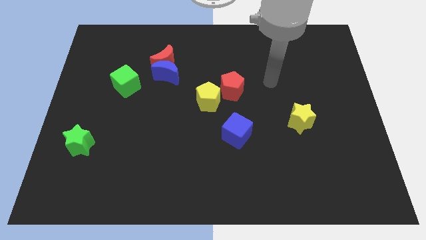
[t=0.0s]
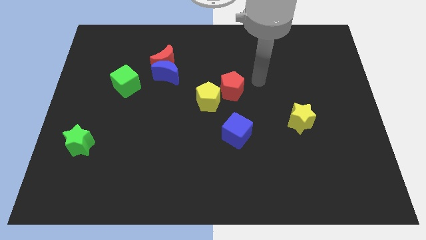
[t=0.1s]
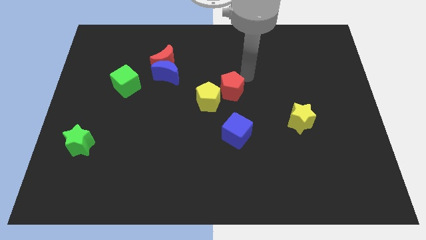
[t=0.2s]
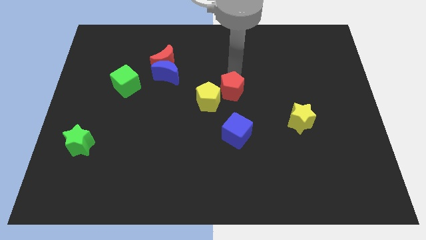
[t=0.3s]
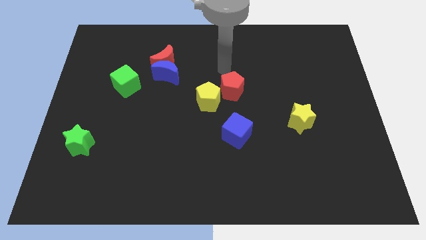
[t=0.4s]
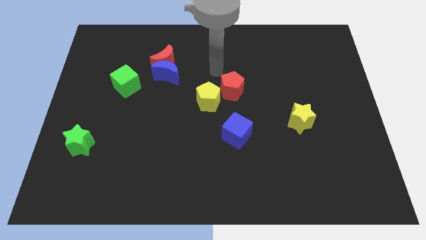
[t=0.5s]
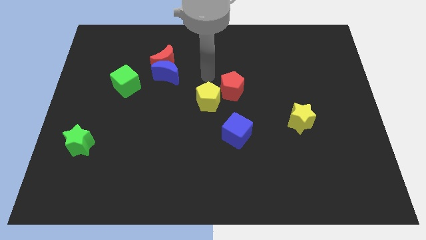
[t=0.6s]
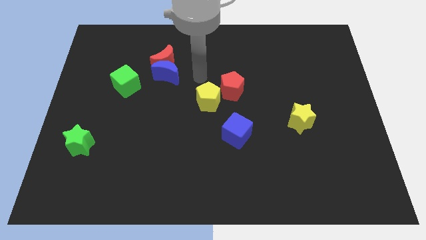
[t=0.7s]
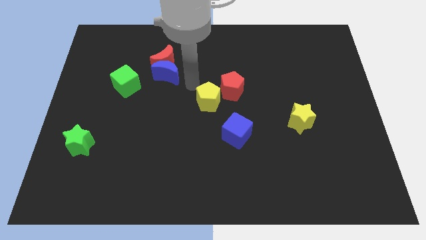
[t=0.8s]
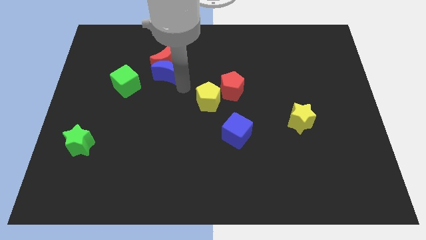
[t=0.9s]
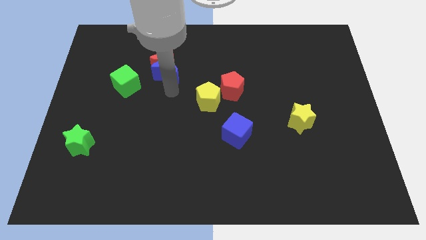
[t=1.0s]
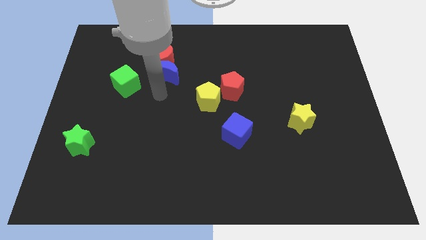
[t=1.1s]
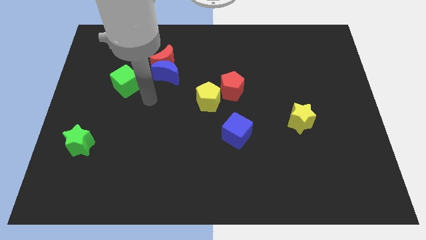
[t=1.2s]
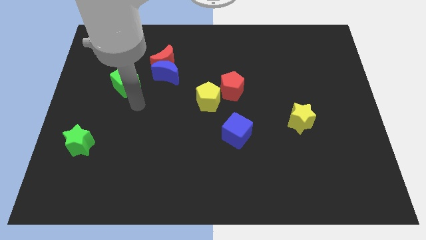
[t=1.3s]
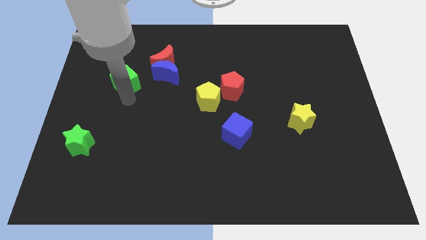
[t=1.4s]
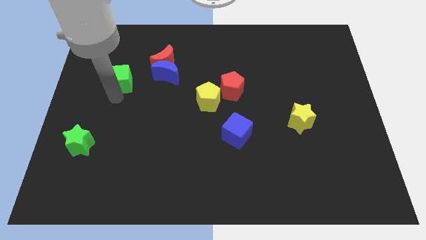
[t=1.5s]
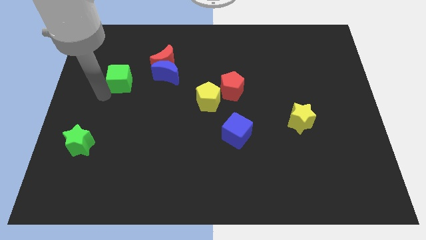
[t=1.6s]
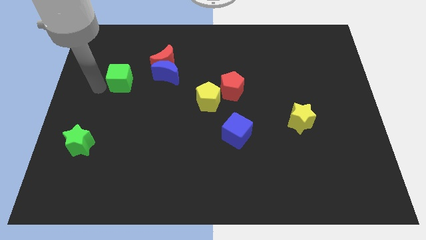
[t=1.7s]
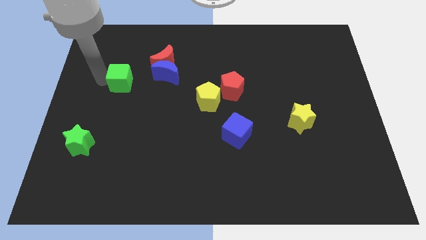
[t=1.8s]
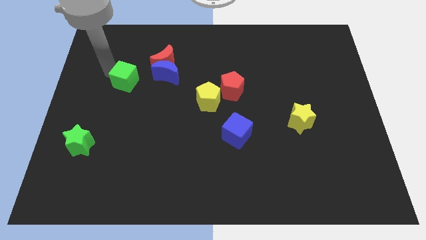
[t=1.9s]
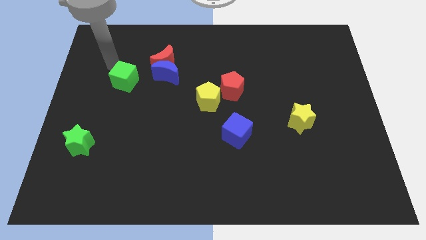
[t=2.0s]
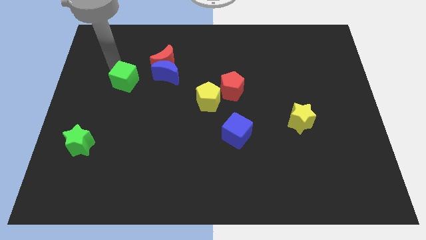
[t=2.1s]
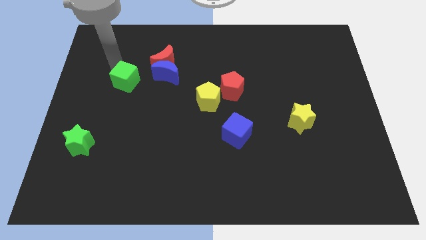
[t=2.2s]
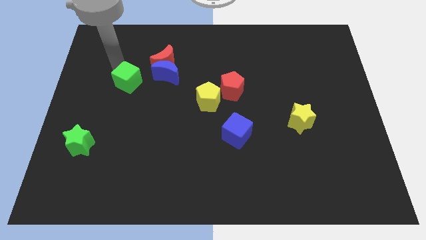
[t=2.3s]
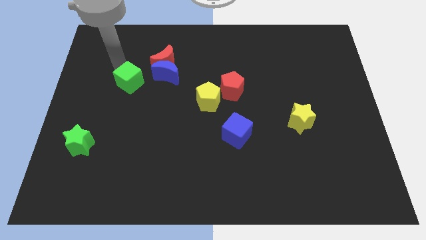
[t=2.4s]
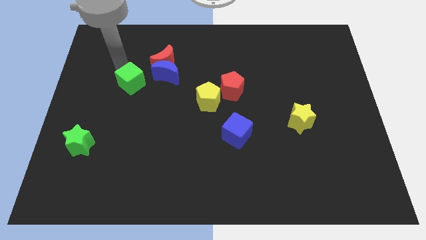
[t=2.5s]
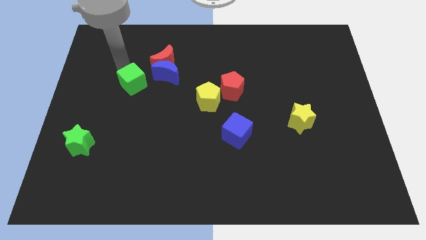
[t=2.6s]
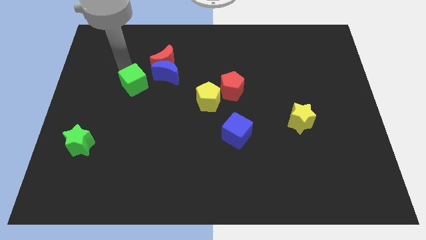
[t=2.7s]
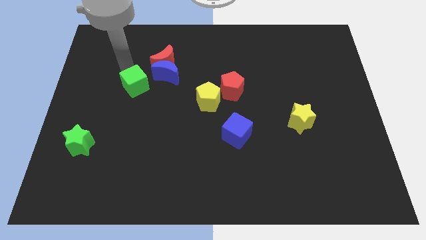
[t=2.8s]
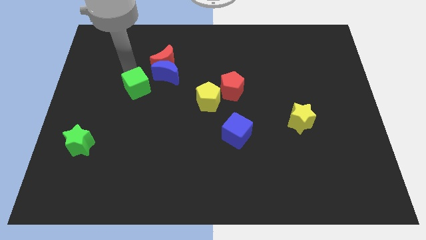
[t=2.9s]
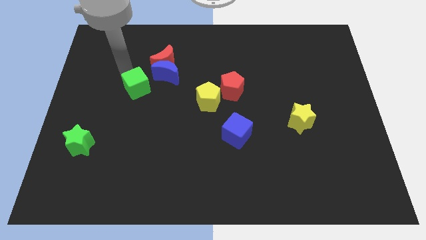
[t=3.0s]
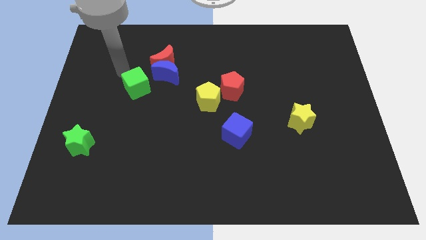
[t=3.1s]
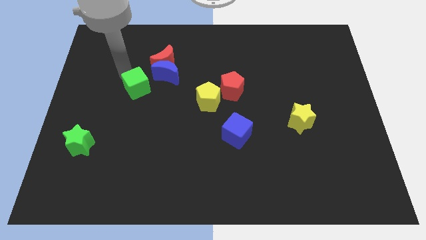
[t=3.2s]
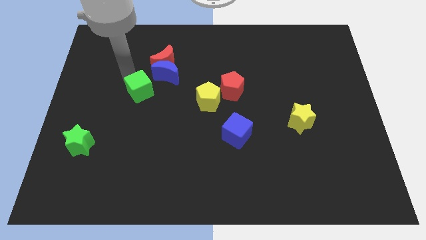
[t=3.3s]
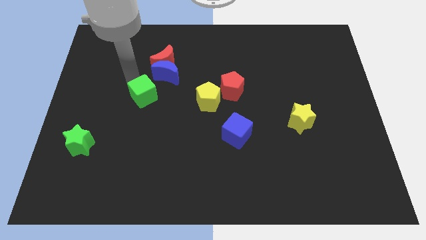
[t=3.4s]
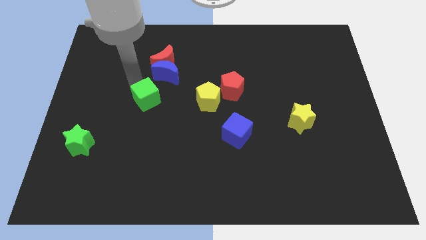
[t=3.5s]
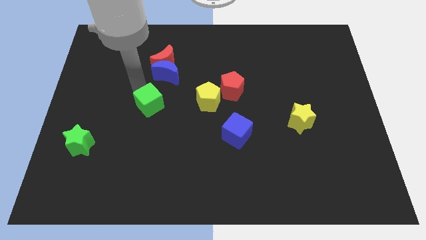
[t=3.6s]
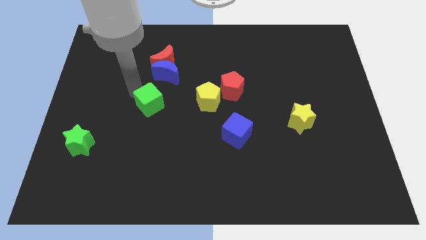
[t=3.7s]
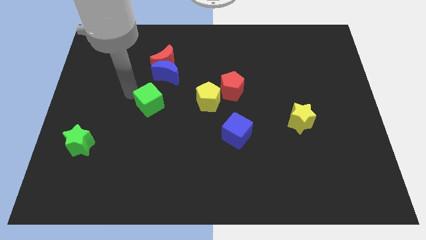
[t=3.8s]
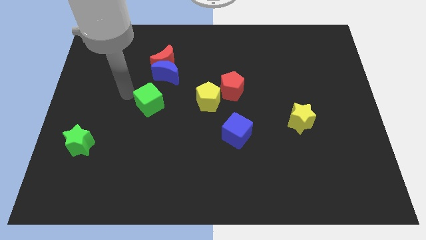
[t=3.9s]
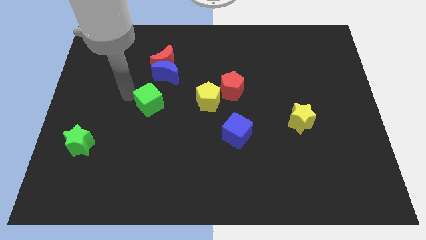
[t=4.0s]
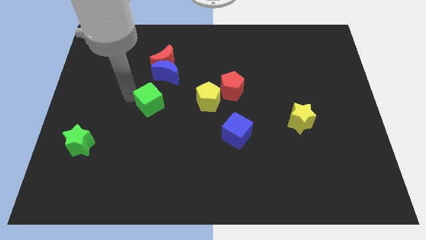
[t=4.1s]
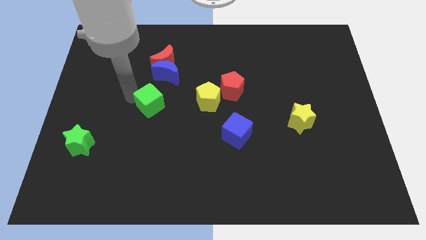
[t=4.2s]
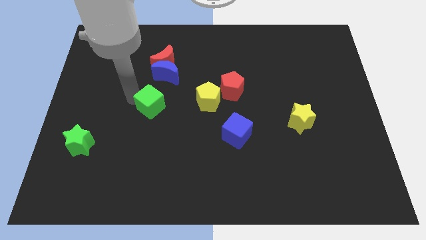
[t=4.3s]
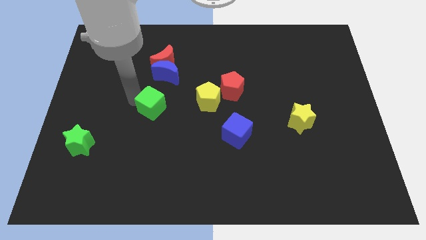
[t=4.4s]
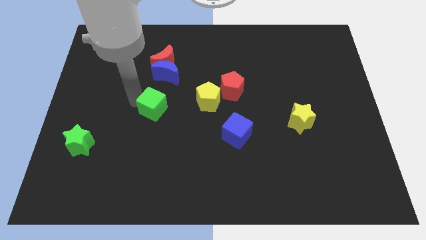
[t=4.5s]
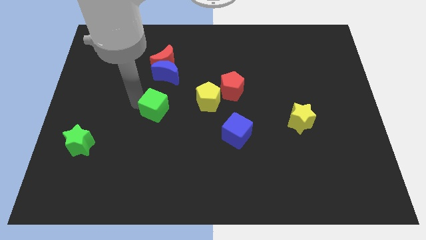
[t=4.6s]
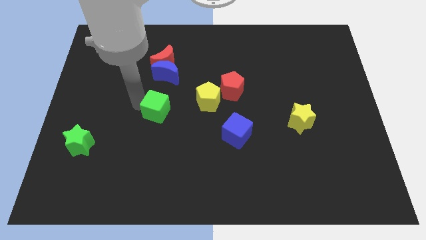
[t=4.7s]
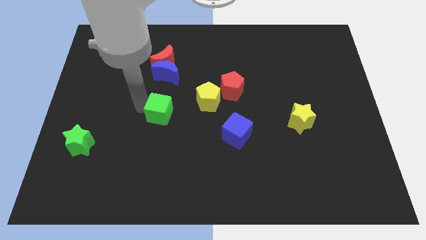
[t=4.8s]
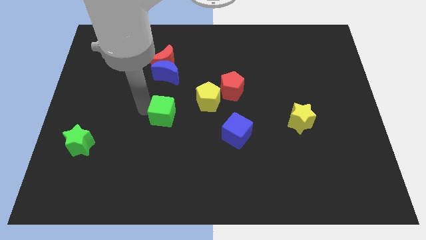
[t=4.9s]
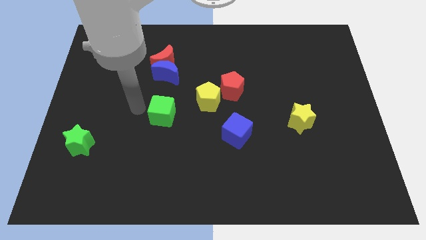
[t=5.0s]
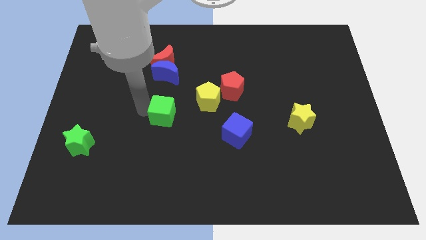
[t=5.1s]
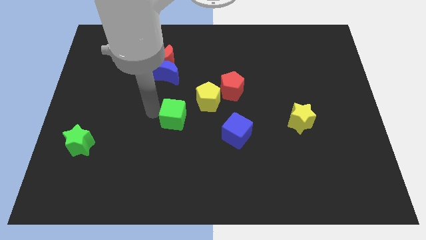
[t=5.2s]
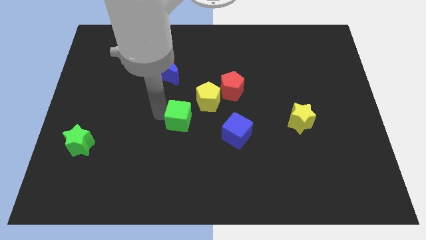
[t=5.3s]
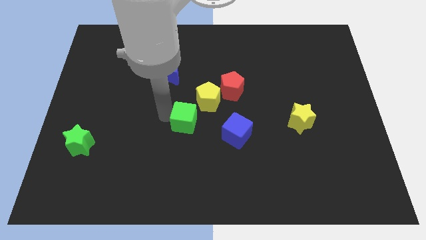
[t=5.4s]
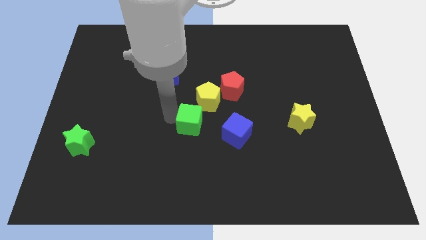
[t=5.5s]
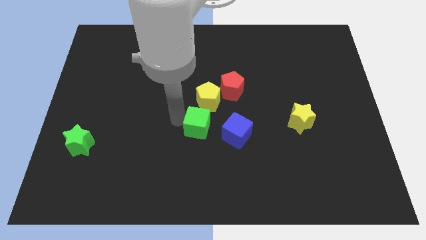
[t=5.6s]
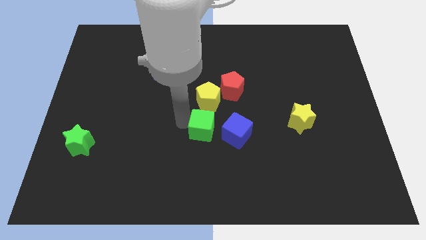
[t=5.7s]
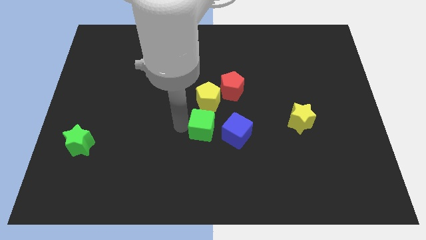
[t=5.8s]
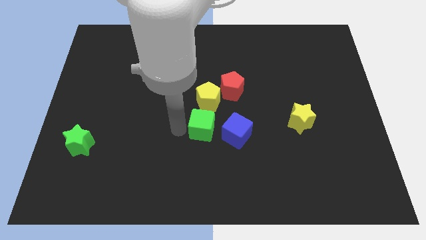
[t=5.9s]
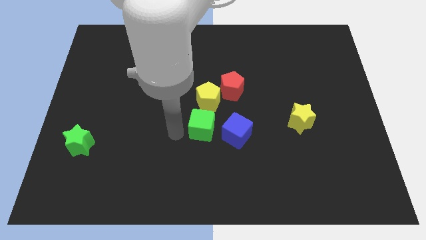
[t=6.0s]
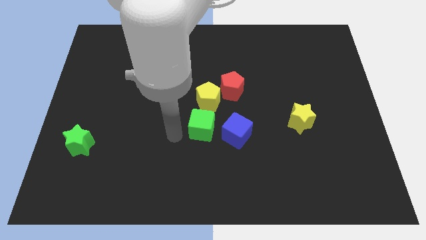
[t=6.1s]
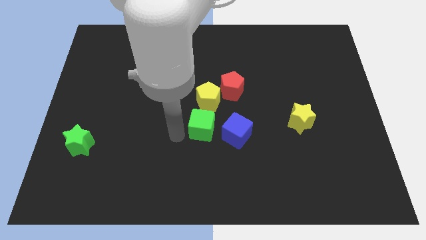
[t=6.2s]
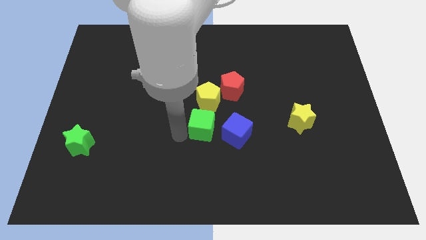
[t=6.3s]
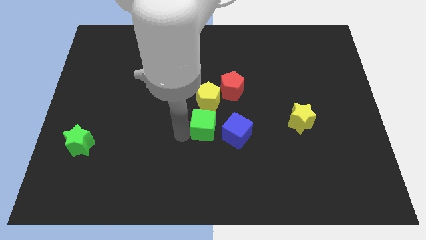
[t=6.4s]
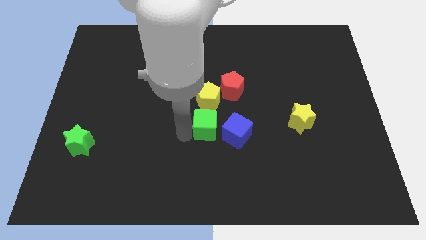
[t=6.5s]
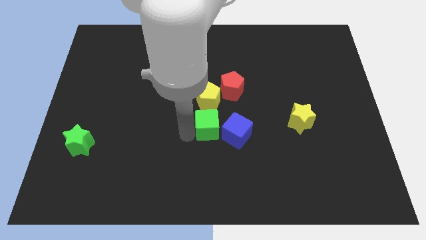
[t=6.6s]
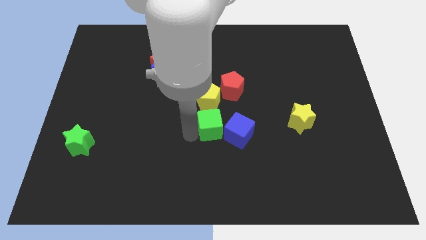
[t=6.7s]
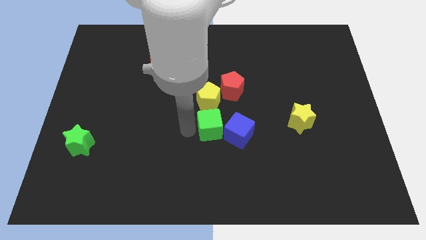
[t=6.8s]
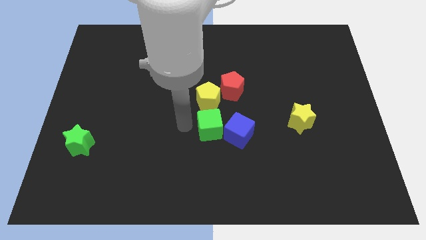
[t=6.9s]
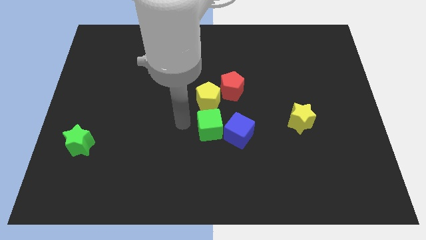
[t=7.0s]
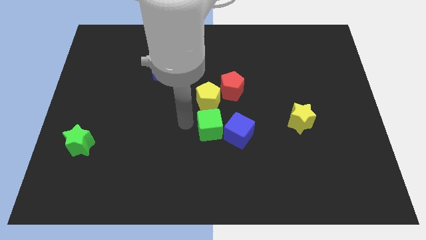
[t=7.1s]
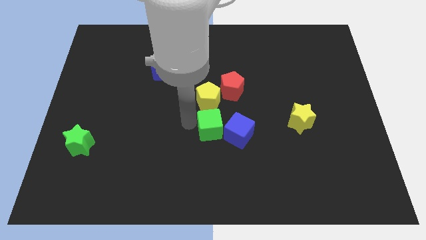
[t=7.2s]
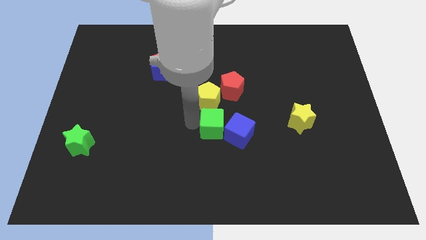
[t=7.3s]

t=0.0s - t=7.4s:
slide the green cube close to the blue cube
